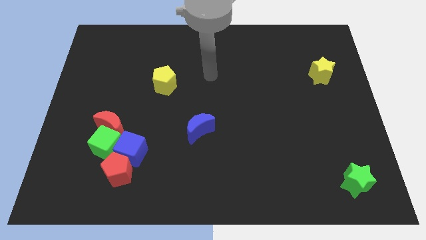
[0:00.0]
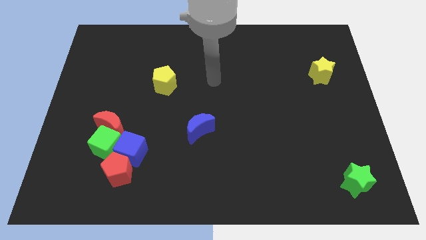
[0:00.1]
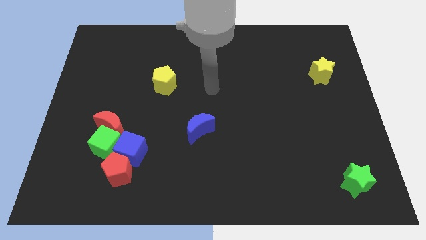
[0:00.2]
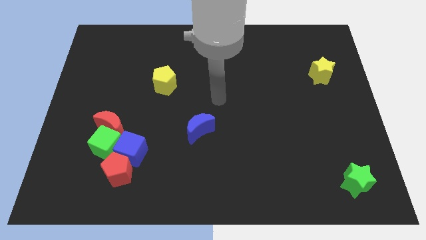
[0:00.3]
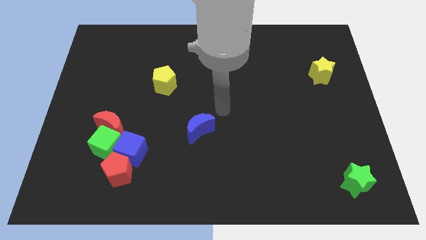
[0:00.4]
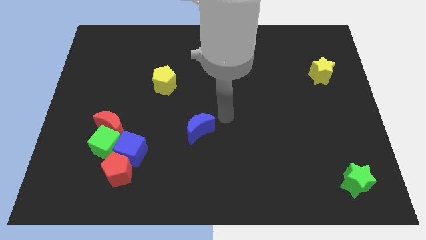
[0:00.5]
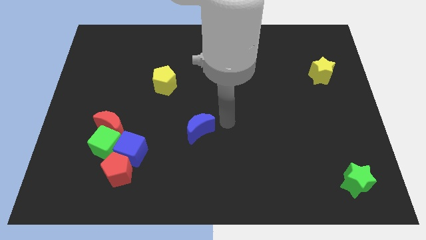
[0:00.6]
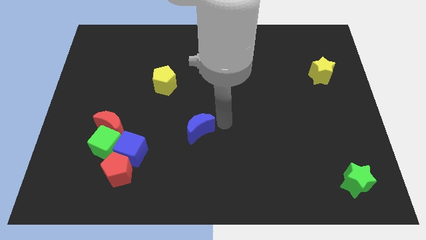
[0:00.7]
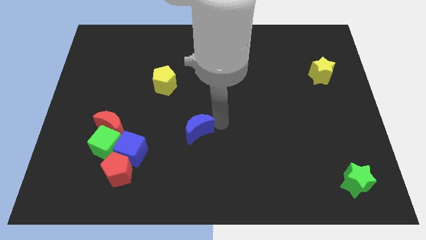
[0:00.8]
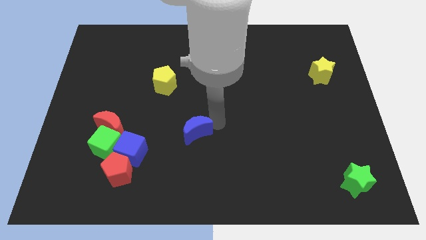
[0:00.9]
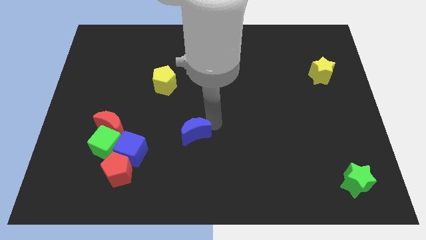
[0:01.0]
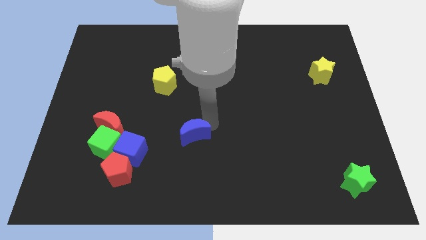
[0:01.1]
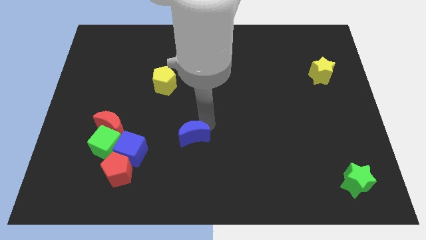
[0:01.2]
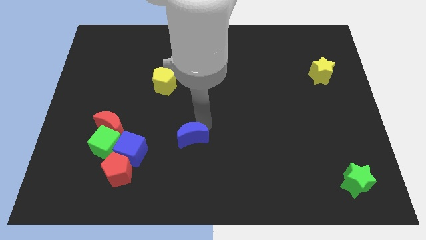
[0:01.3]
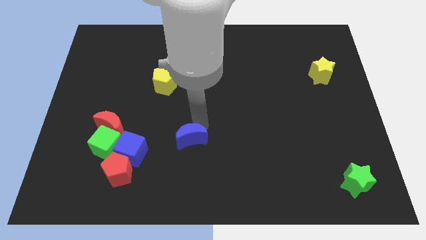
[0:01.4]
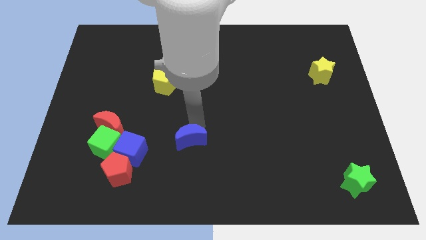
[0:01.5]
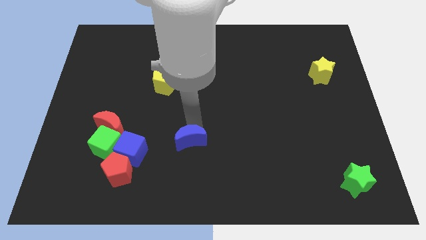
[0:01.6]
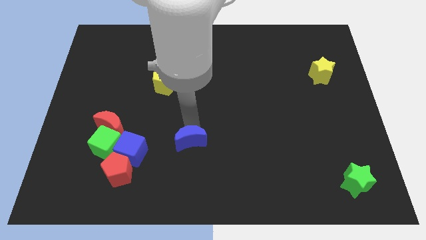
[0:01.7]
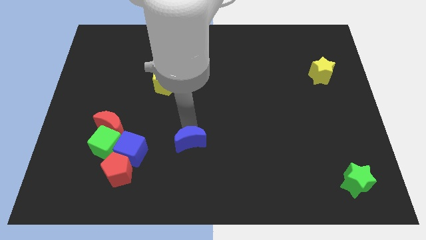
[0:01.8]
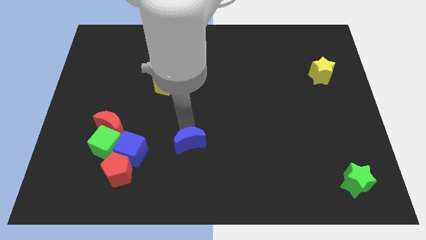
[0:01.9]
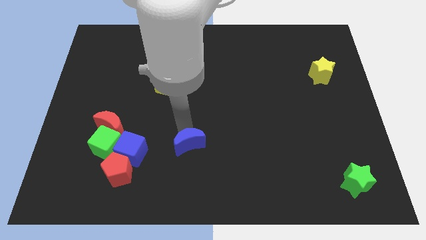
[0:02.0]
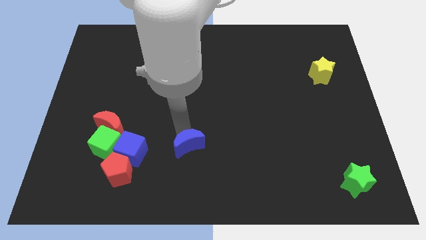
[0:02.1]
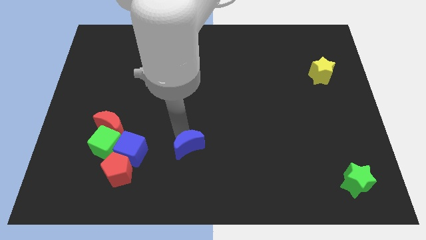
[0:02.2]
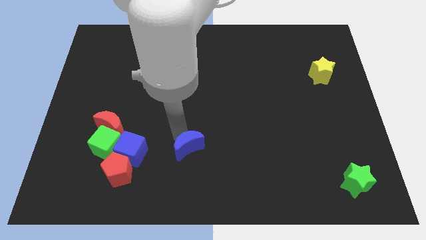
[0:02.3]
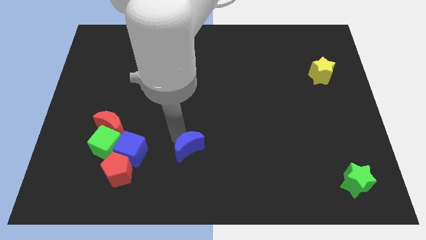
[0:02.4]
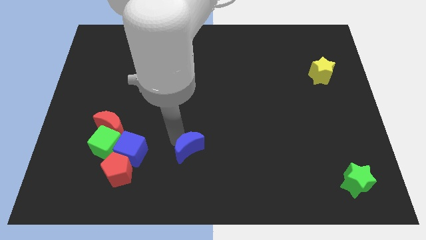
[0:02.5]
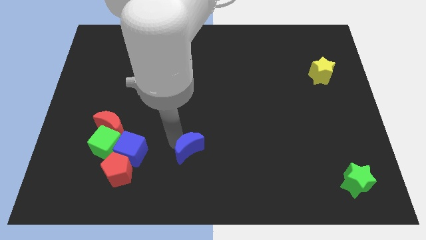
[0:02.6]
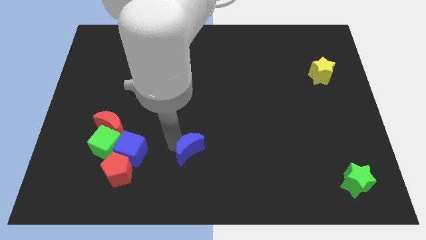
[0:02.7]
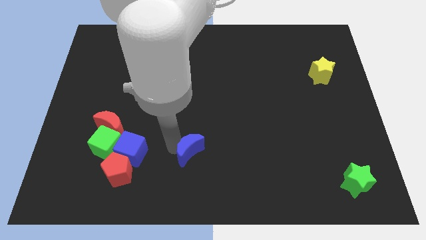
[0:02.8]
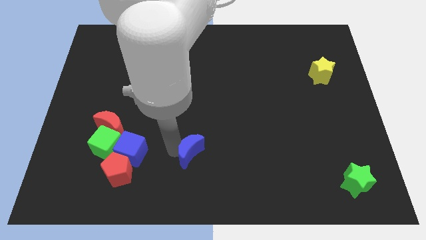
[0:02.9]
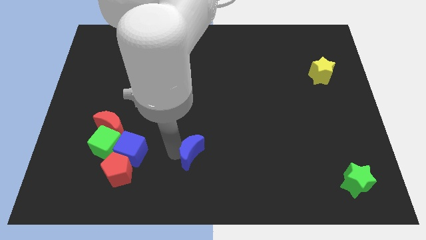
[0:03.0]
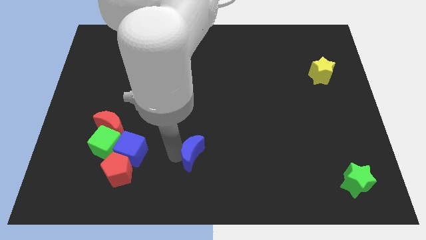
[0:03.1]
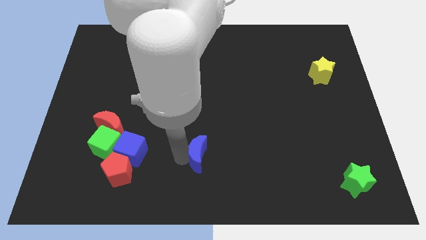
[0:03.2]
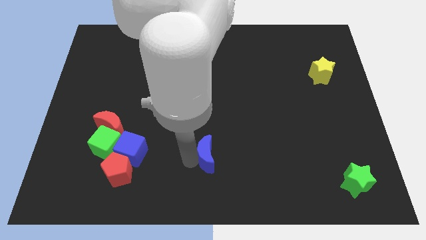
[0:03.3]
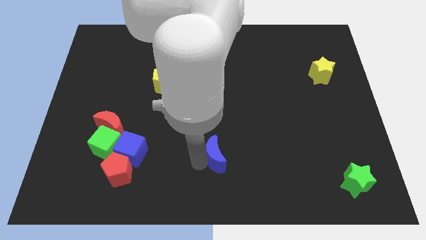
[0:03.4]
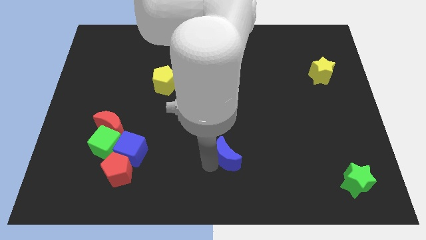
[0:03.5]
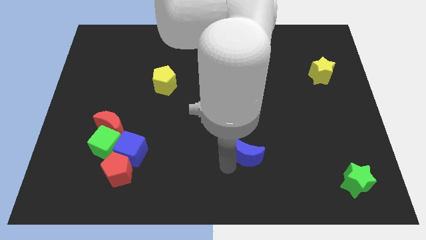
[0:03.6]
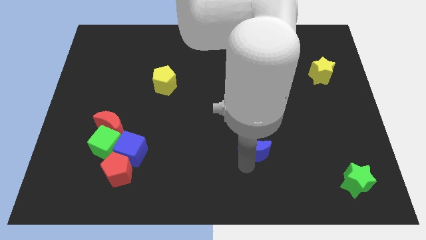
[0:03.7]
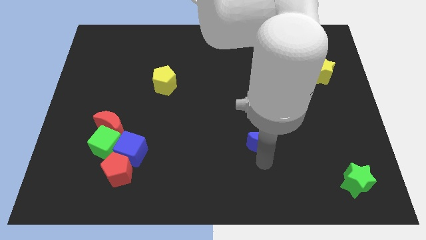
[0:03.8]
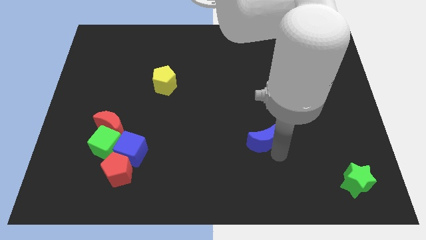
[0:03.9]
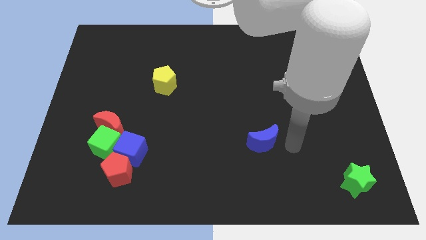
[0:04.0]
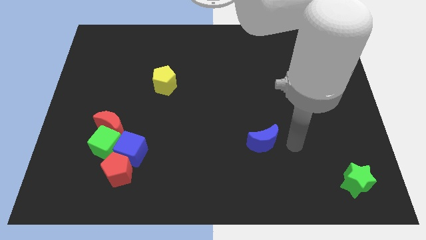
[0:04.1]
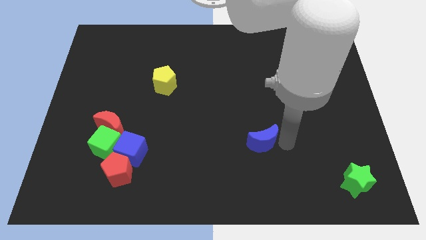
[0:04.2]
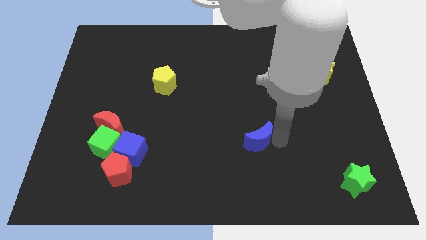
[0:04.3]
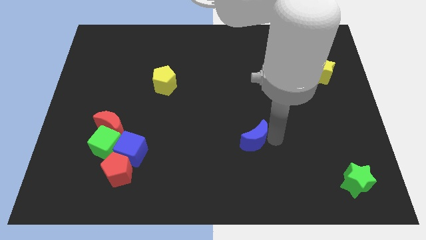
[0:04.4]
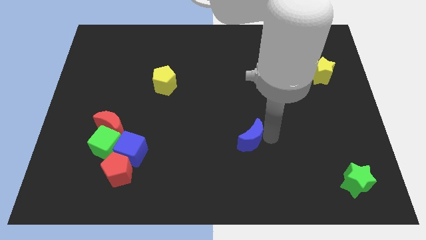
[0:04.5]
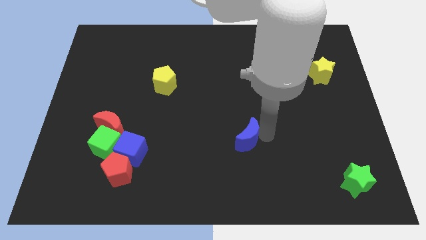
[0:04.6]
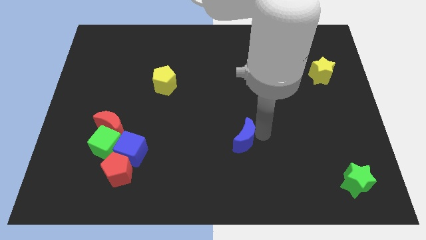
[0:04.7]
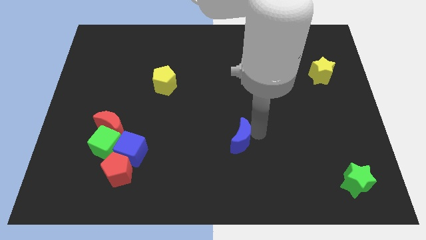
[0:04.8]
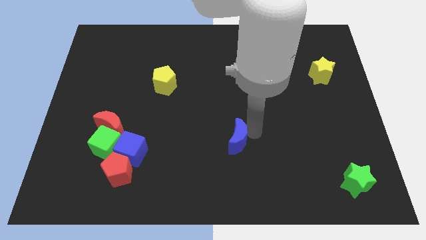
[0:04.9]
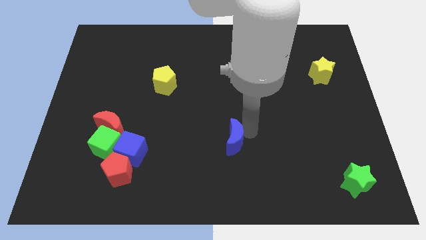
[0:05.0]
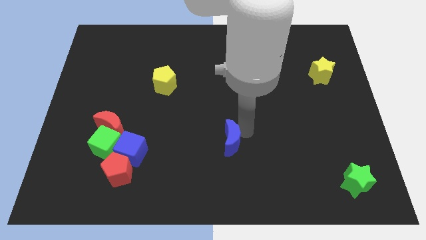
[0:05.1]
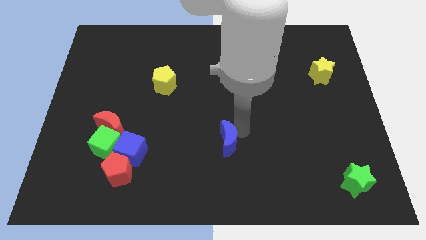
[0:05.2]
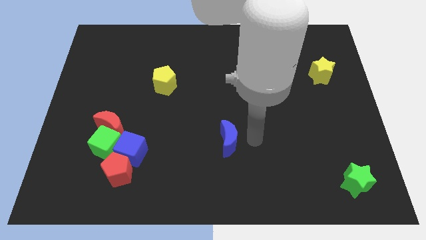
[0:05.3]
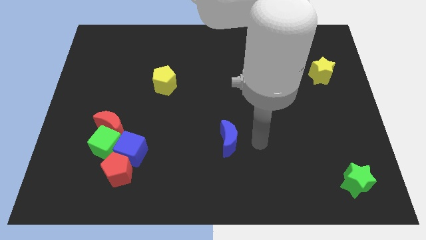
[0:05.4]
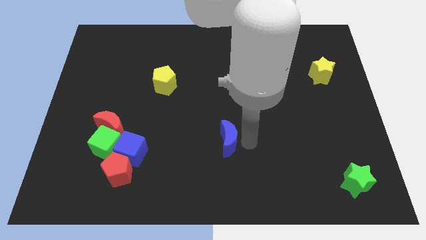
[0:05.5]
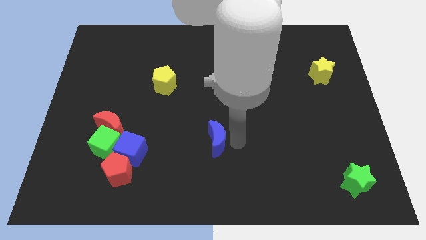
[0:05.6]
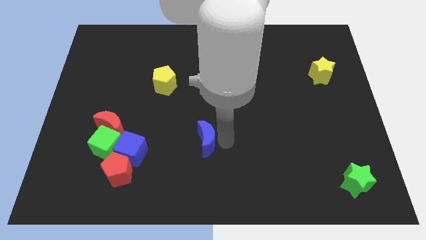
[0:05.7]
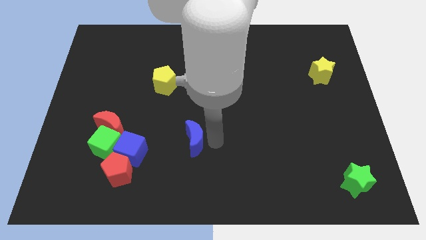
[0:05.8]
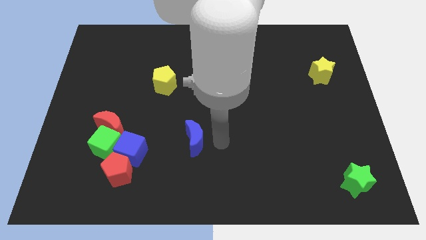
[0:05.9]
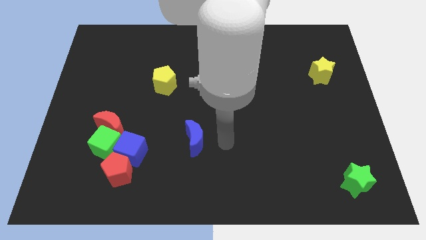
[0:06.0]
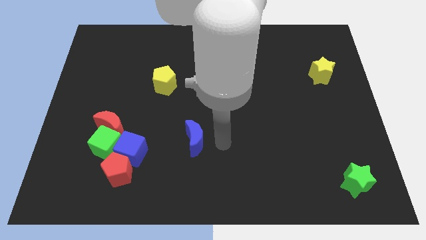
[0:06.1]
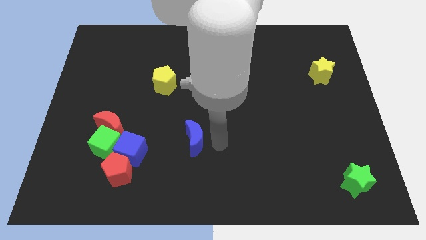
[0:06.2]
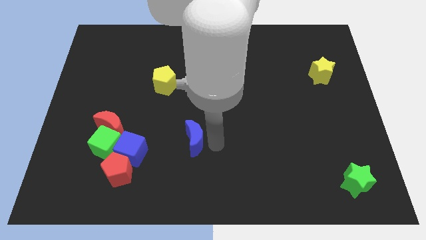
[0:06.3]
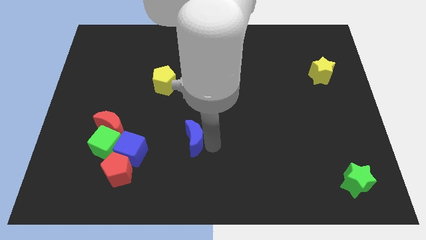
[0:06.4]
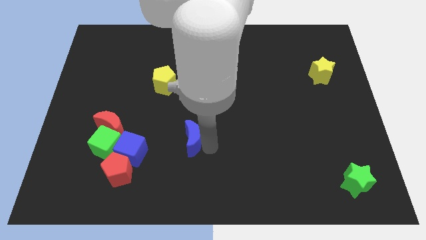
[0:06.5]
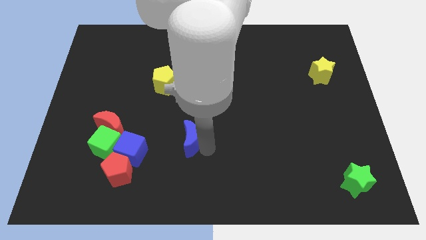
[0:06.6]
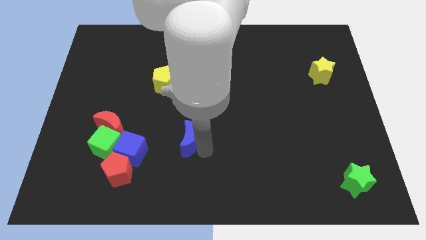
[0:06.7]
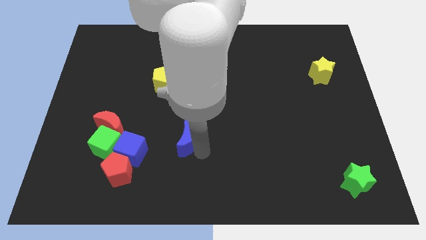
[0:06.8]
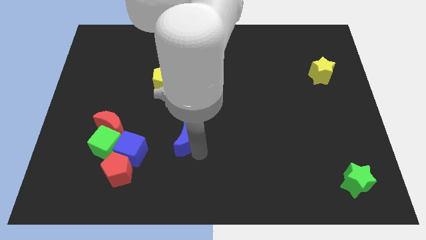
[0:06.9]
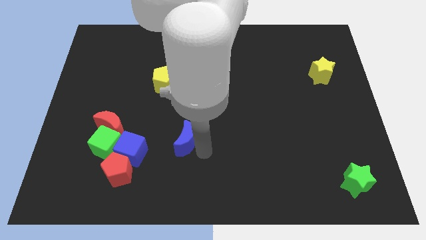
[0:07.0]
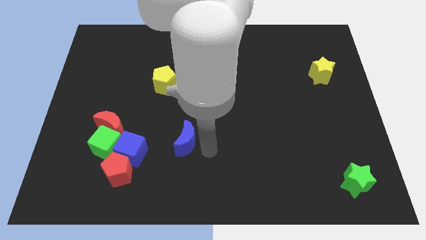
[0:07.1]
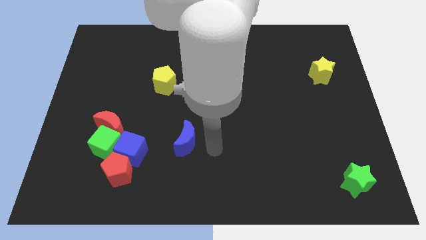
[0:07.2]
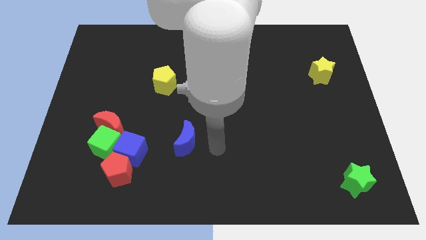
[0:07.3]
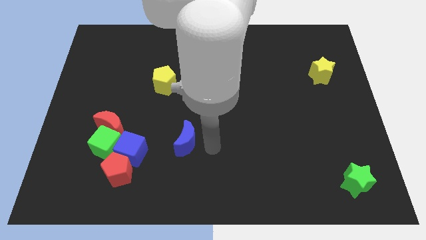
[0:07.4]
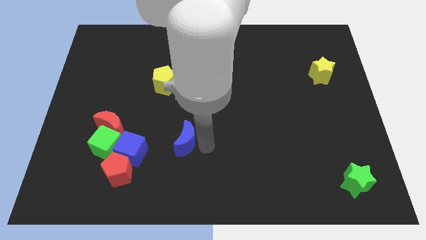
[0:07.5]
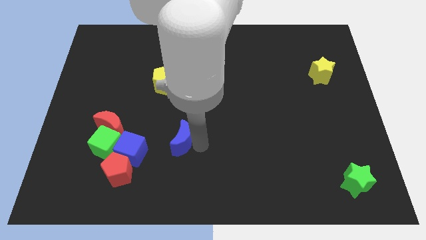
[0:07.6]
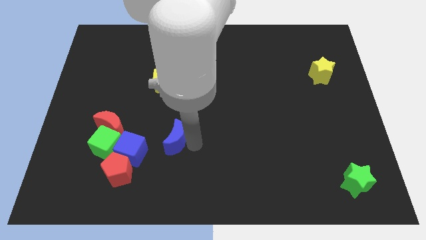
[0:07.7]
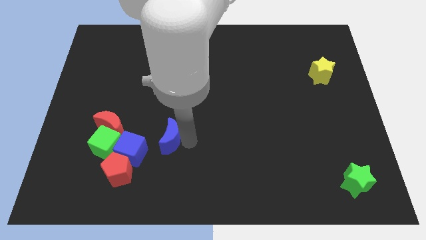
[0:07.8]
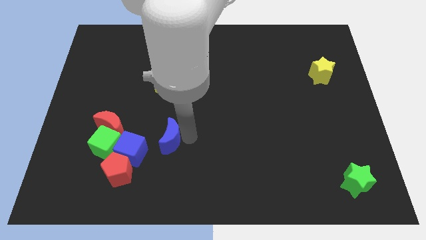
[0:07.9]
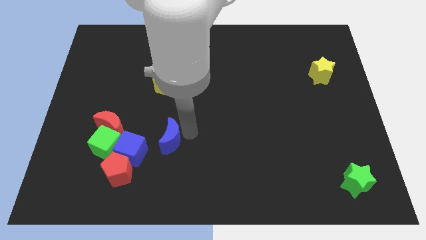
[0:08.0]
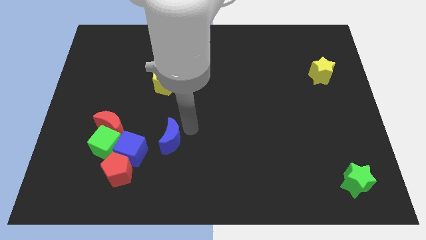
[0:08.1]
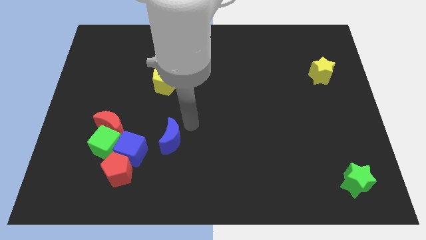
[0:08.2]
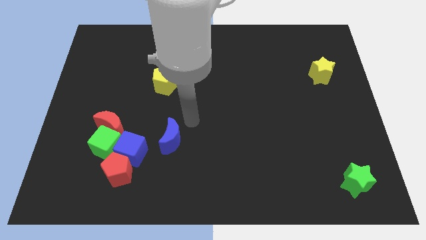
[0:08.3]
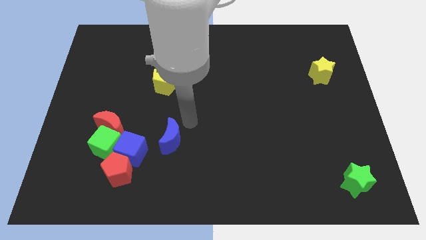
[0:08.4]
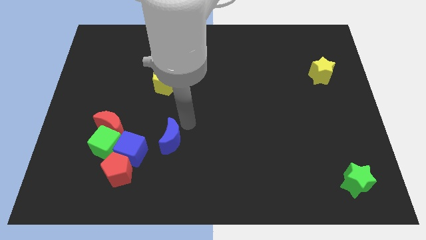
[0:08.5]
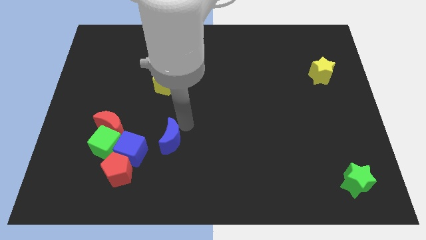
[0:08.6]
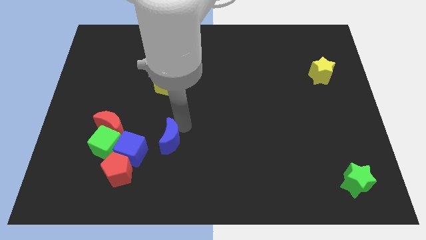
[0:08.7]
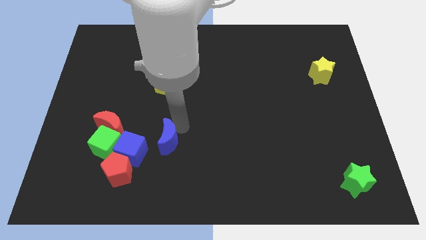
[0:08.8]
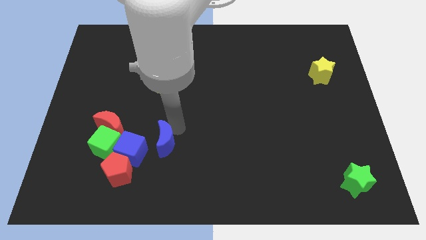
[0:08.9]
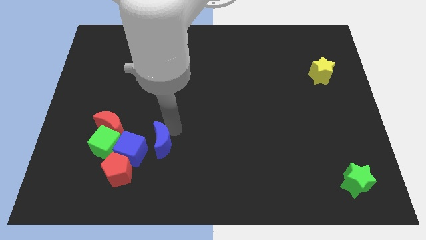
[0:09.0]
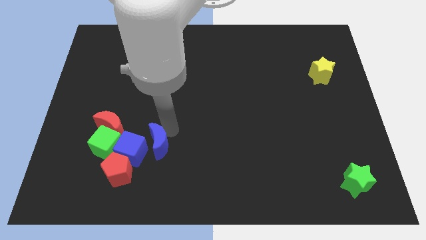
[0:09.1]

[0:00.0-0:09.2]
slide the blue moon close to the blue cube
